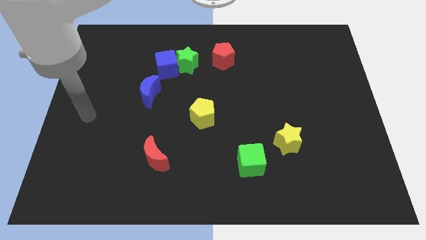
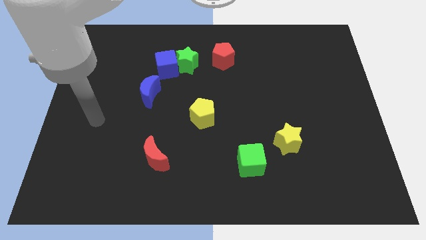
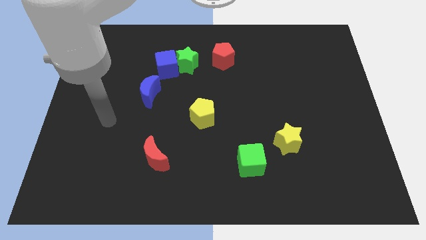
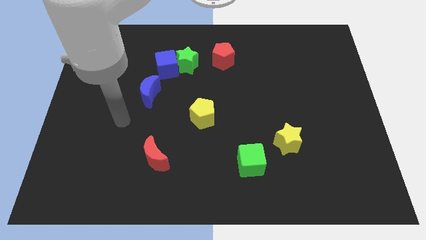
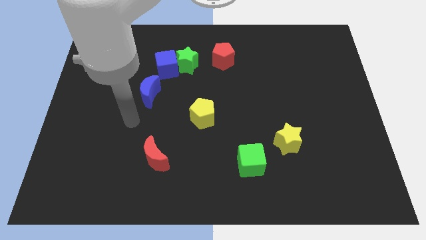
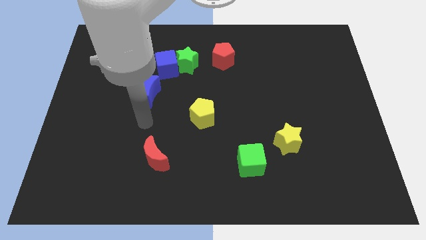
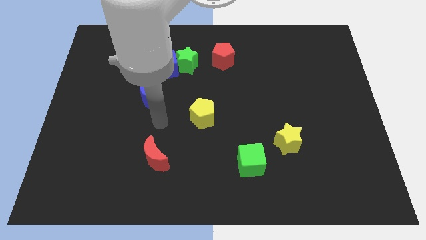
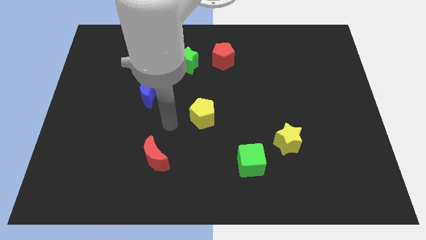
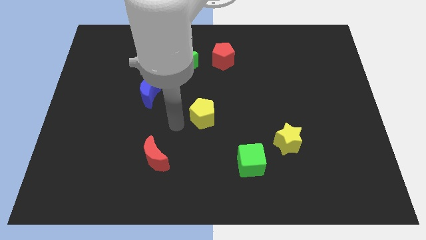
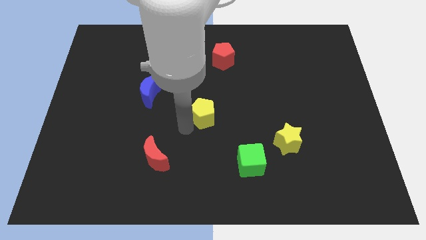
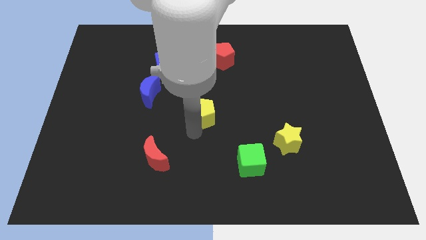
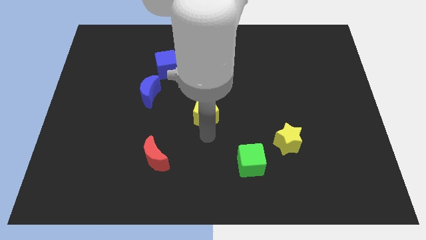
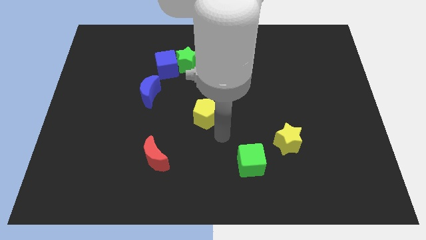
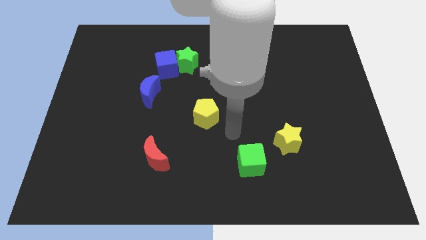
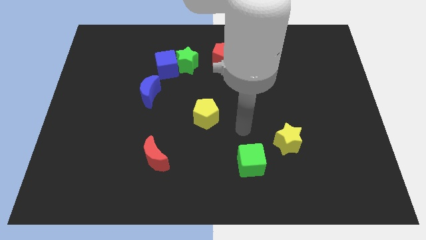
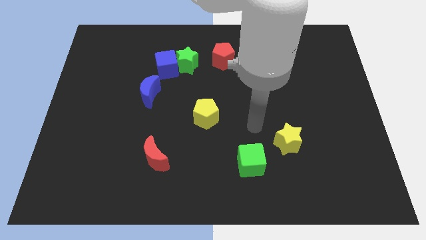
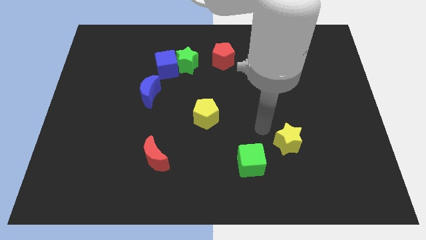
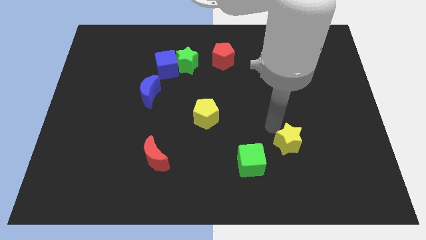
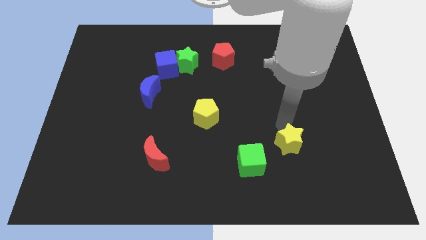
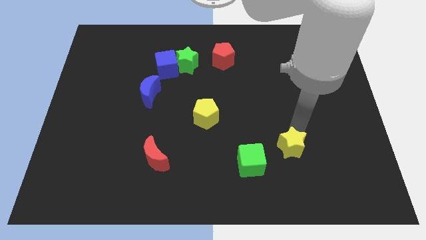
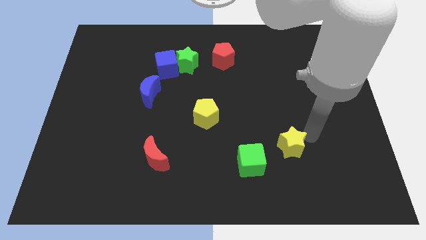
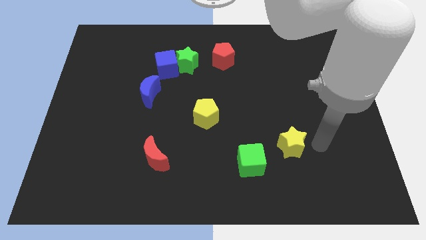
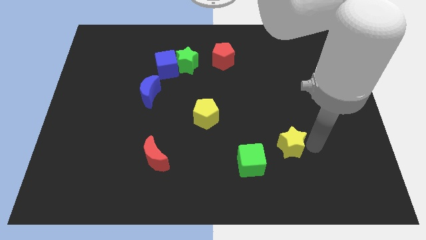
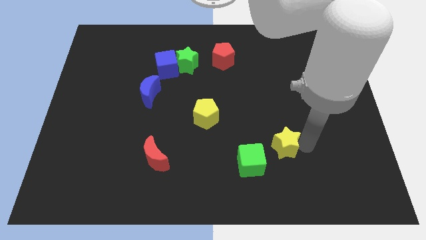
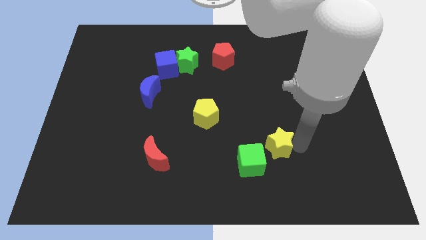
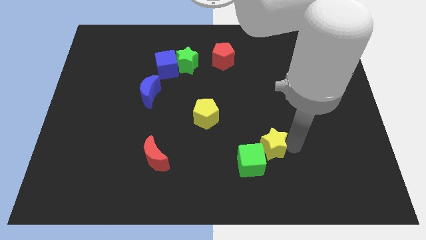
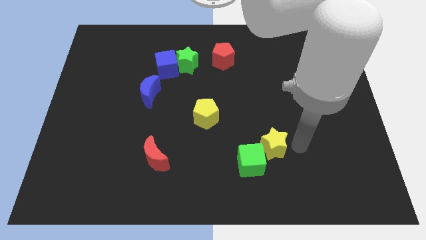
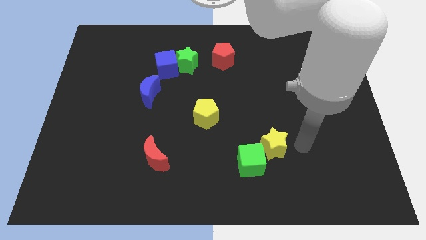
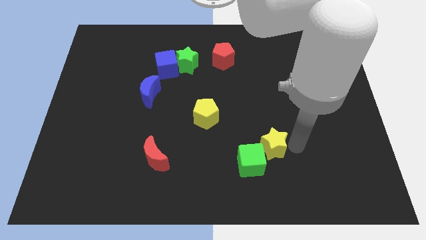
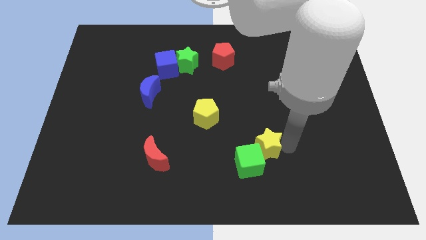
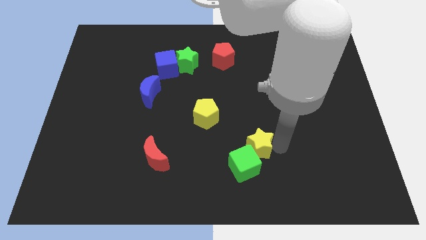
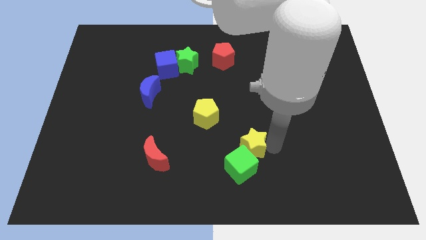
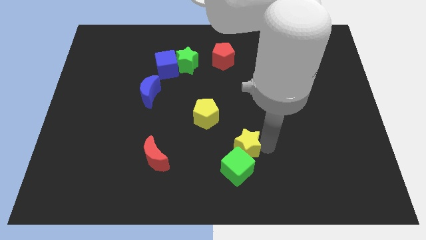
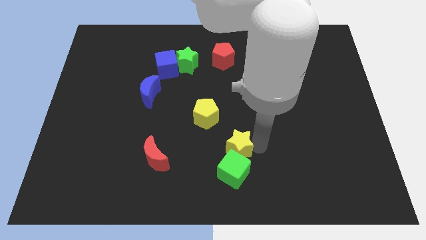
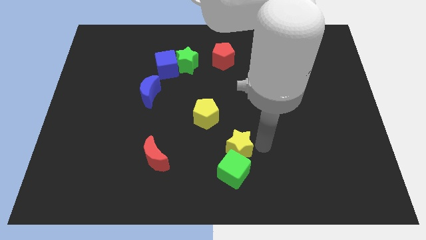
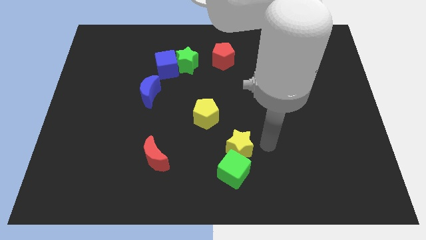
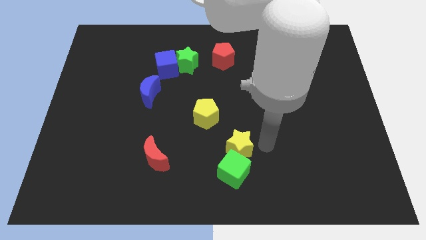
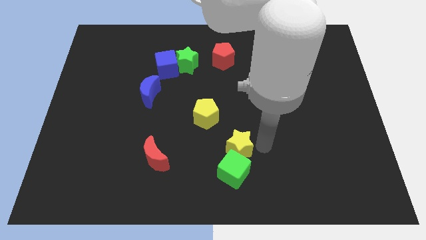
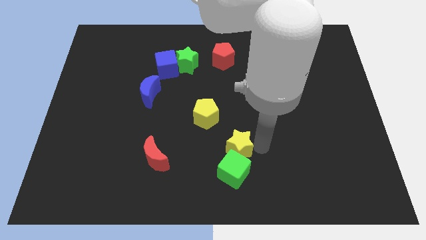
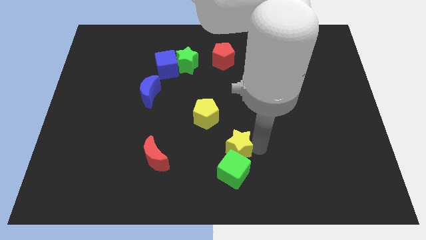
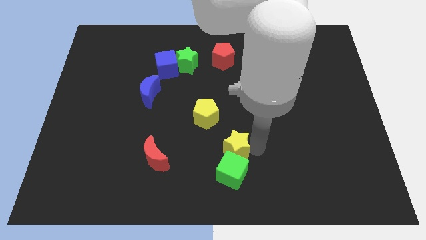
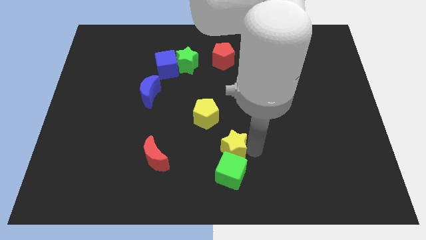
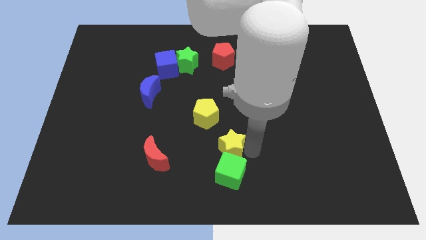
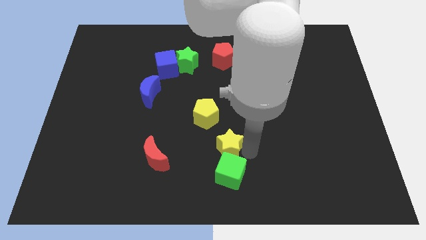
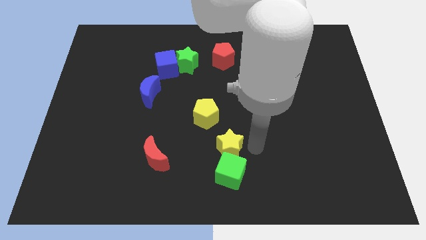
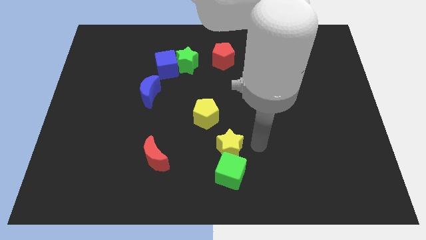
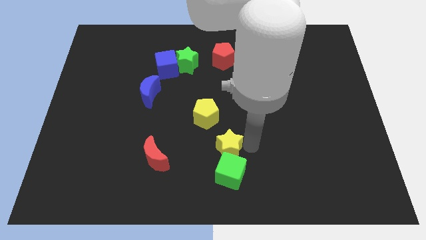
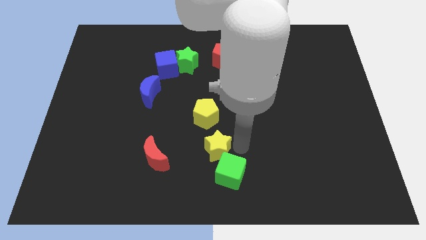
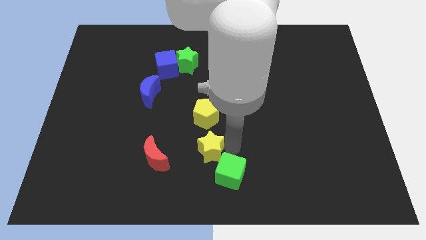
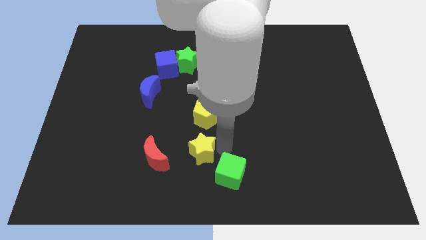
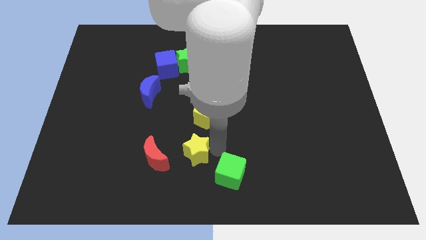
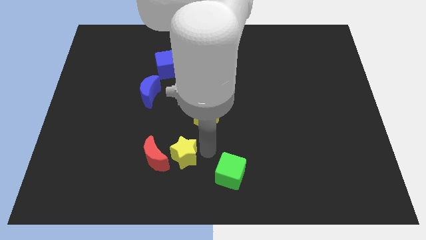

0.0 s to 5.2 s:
put the yellow star next to the red moon

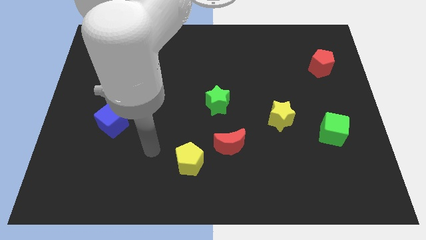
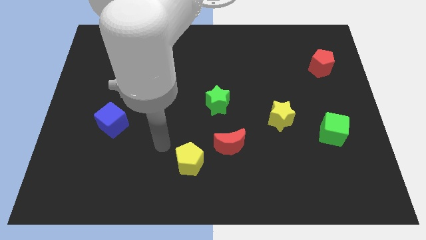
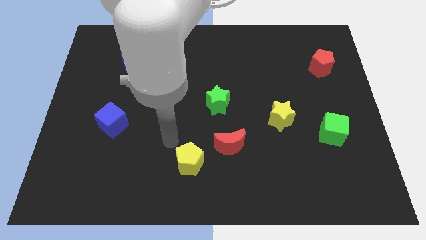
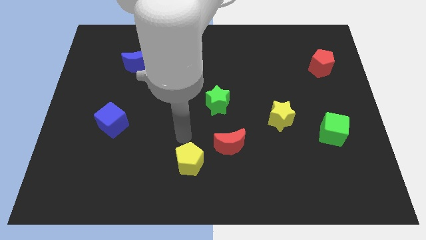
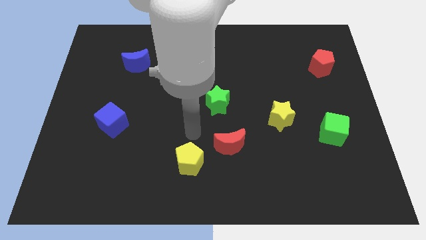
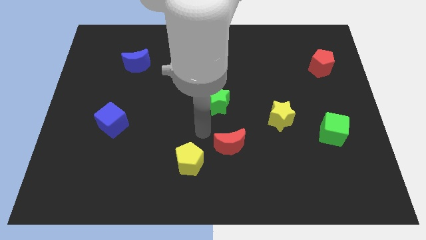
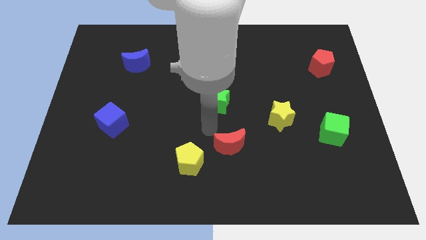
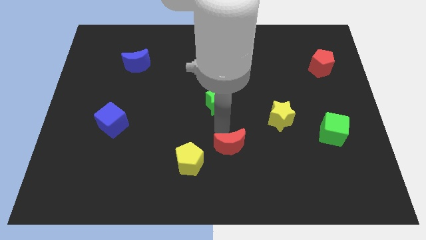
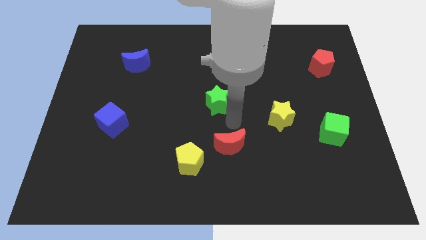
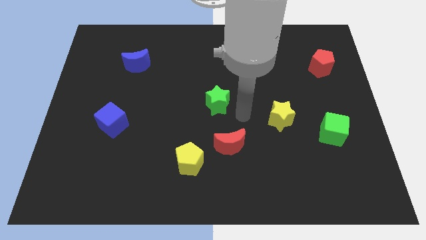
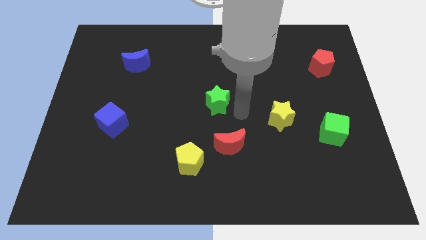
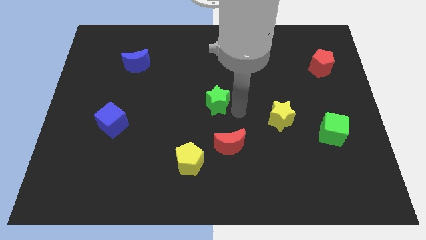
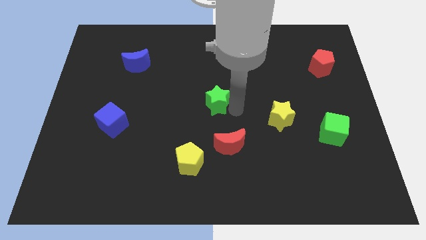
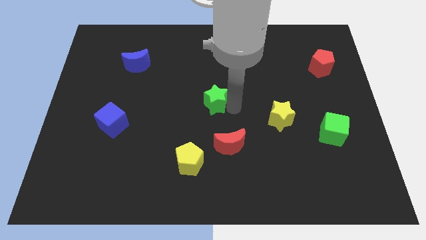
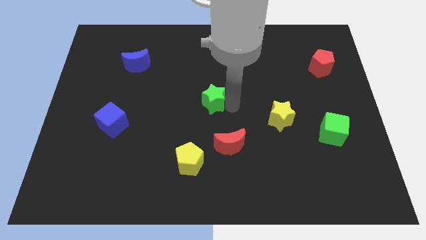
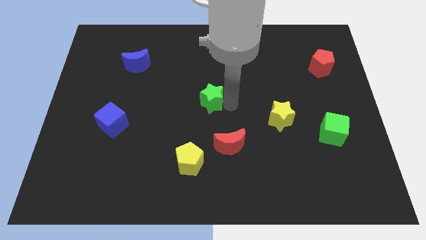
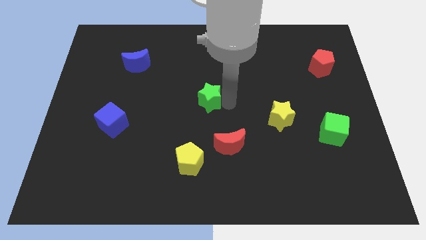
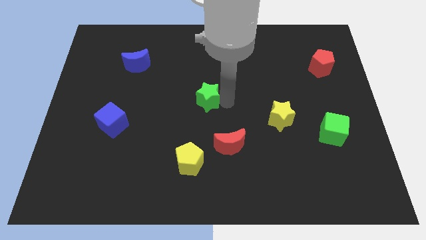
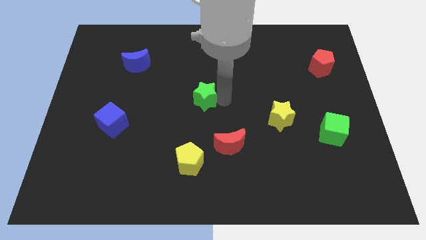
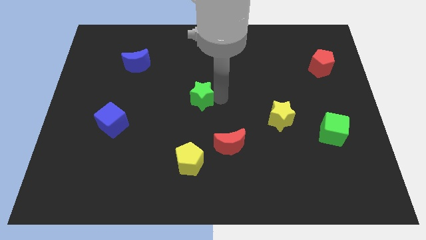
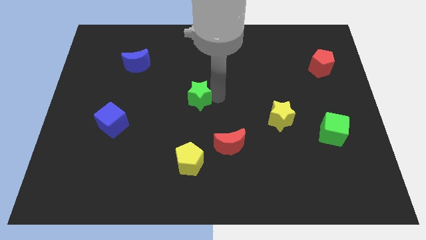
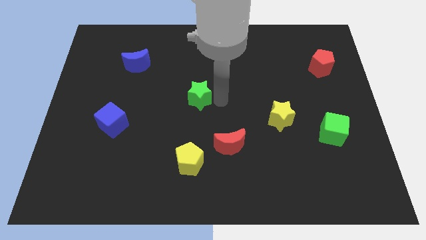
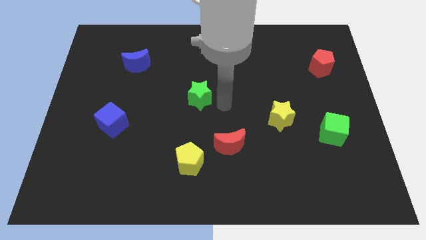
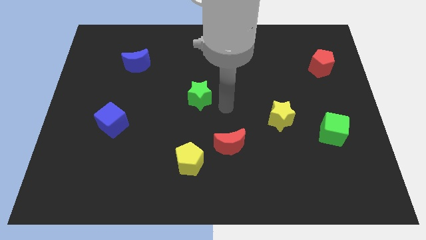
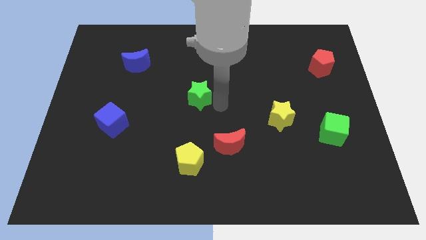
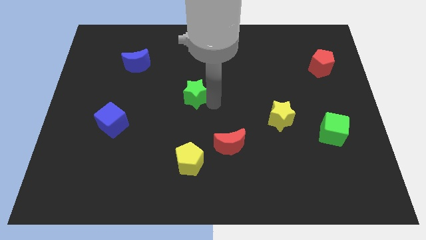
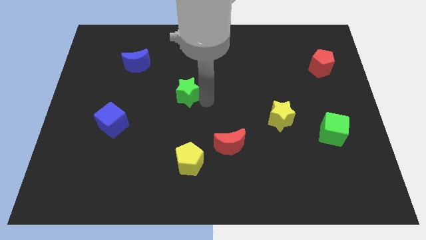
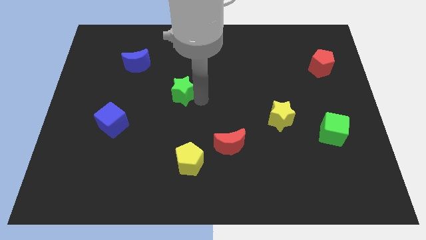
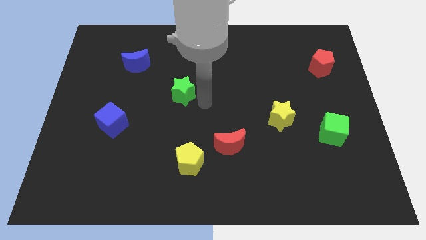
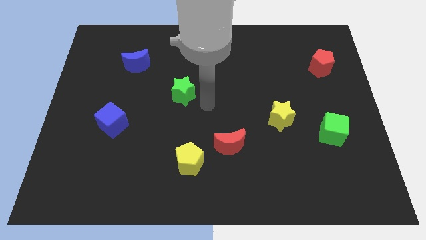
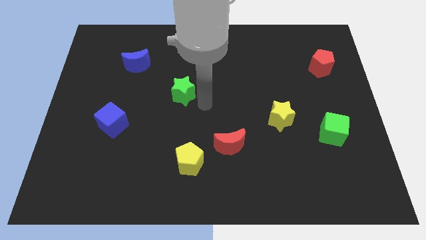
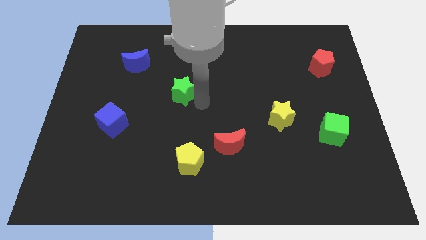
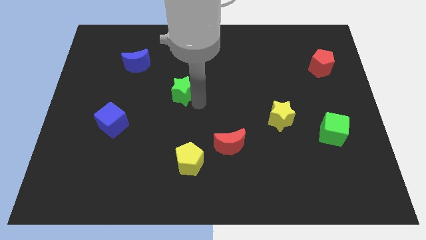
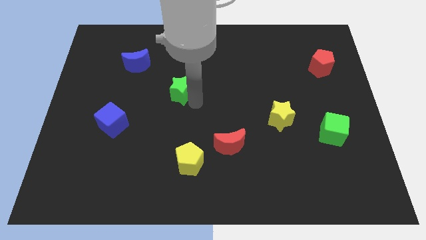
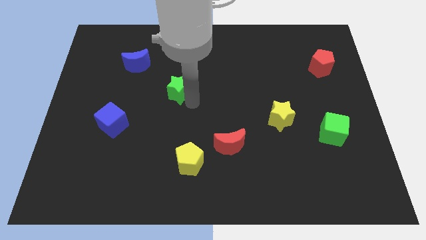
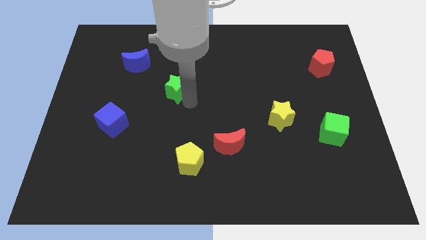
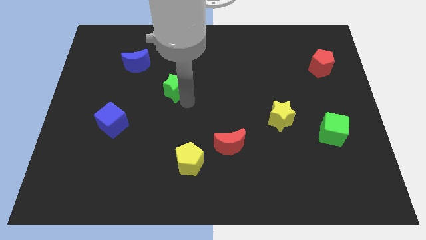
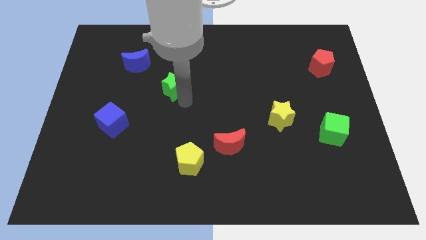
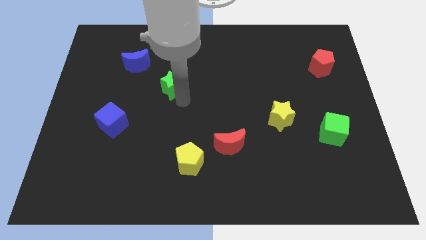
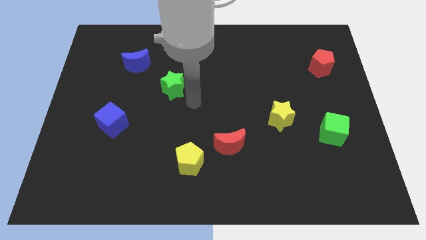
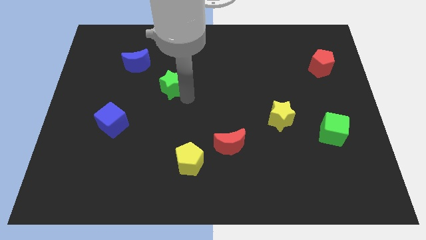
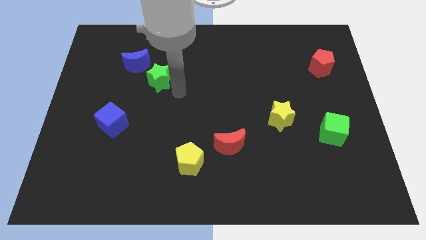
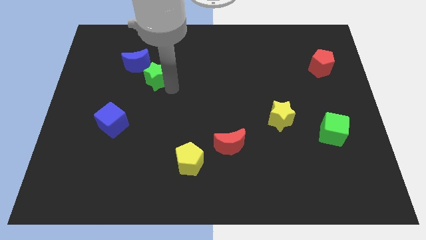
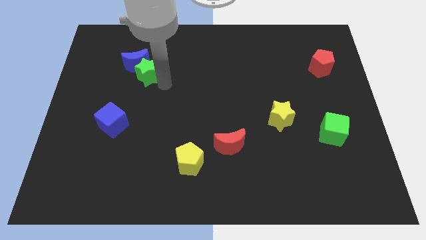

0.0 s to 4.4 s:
push the green star towards the blue moon
